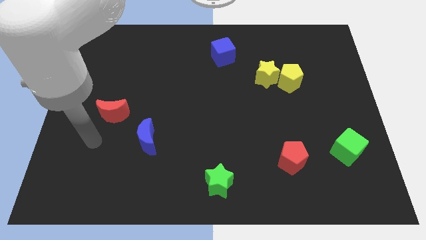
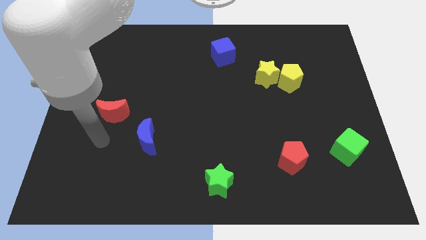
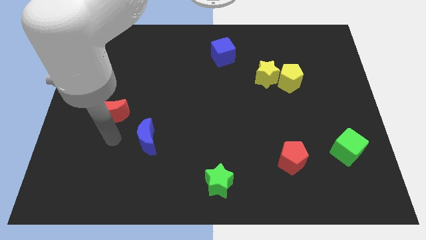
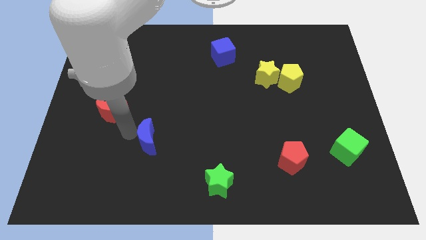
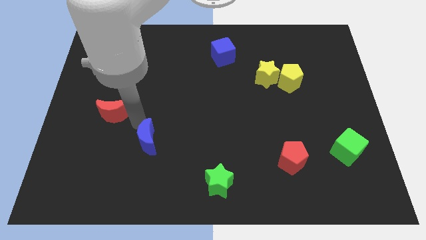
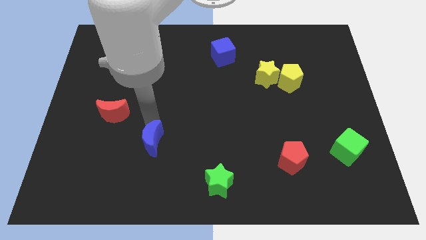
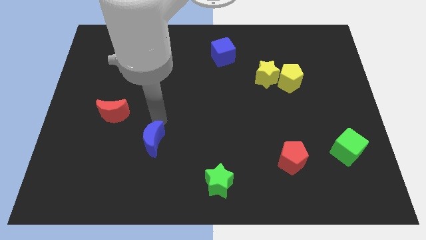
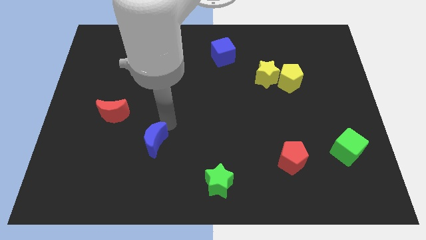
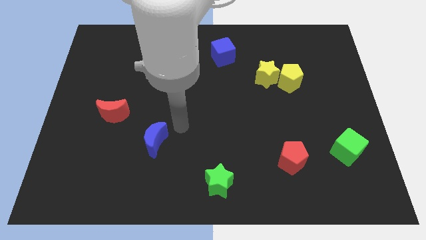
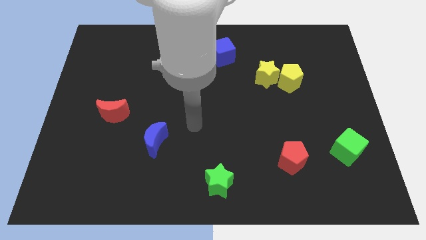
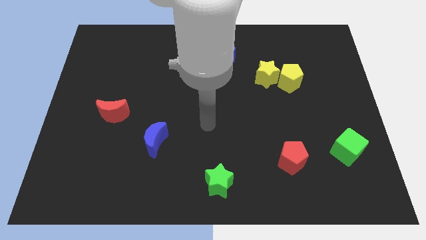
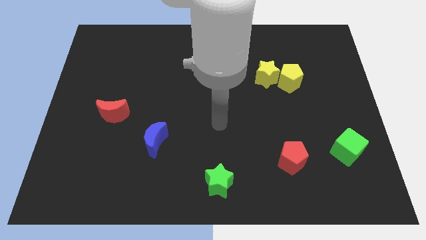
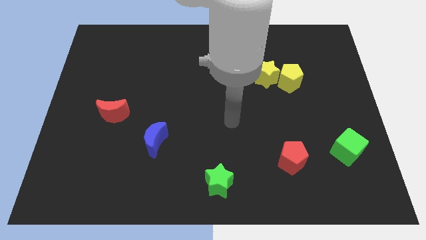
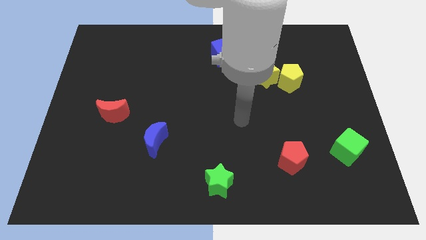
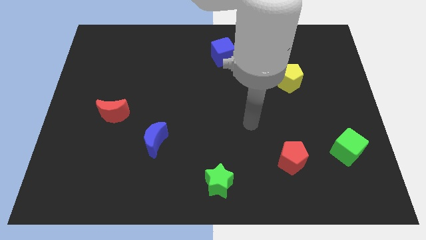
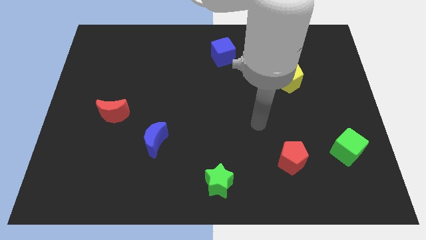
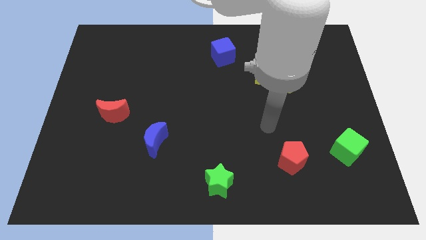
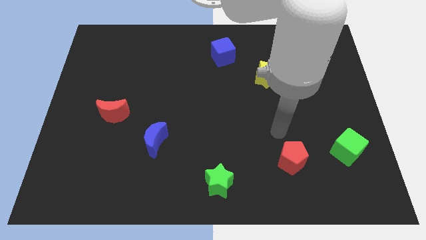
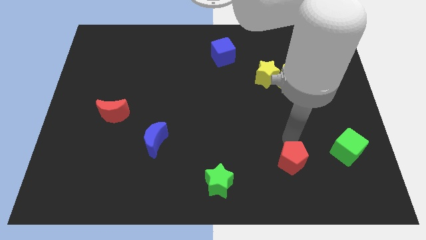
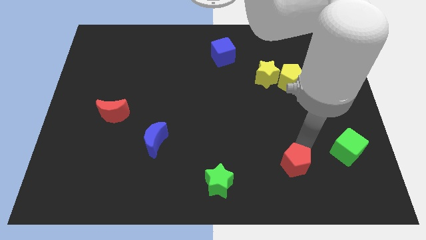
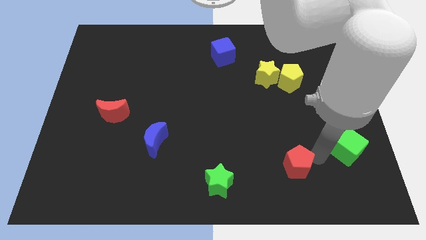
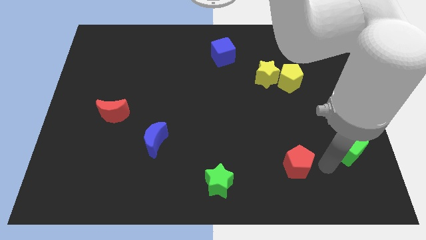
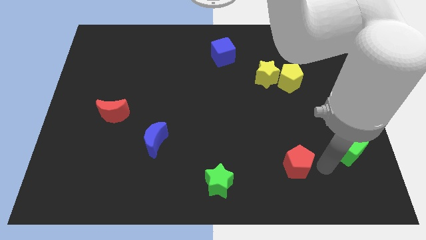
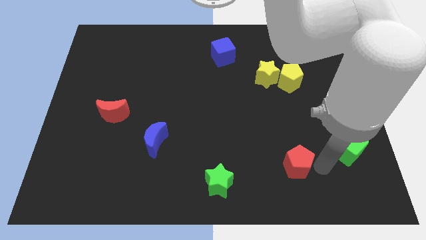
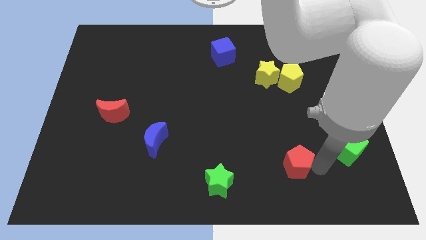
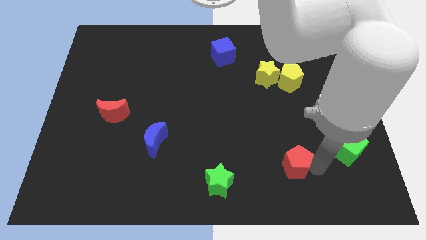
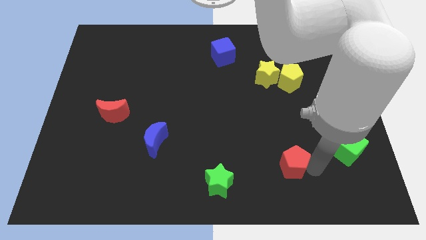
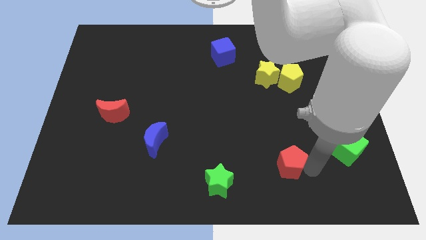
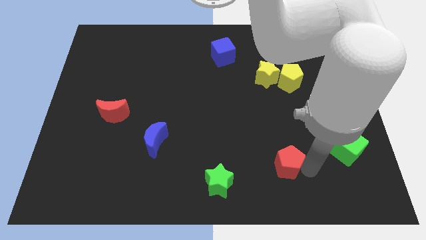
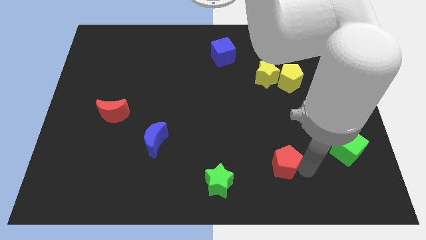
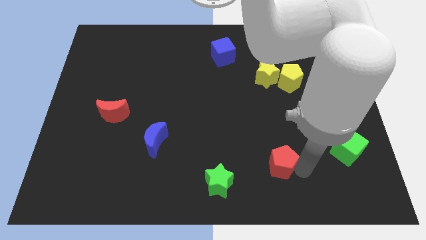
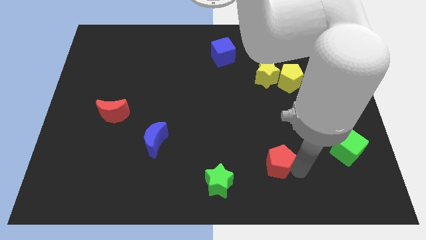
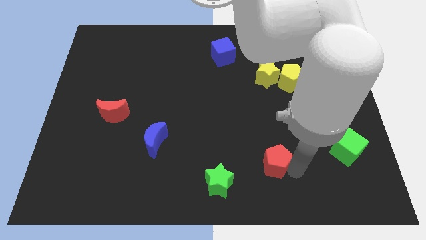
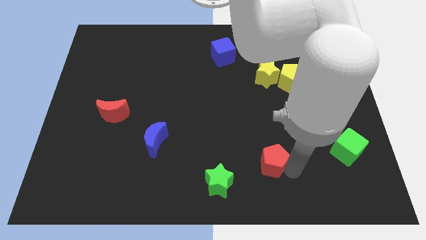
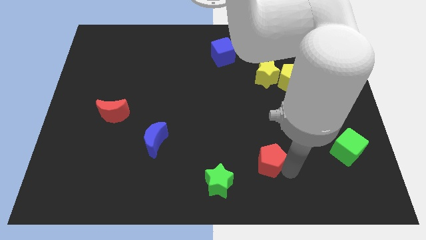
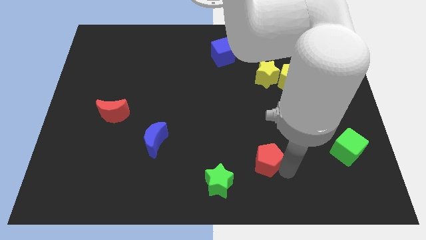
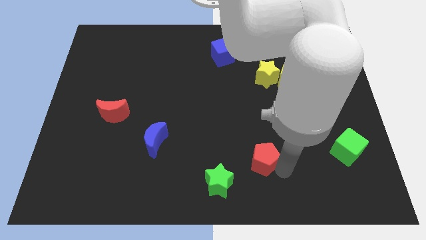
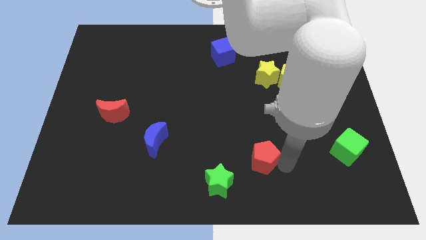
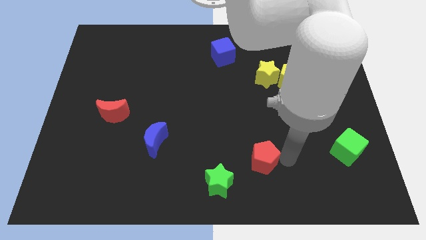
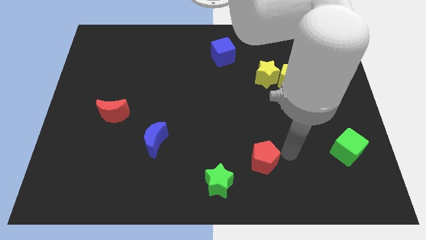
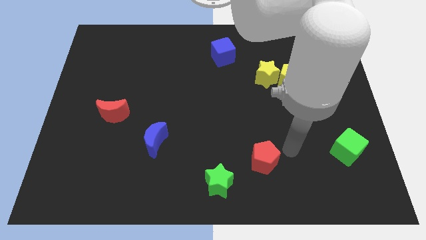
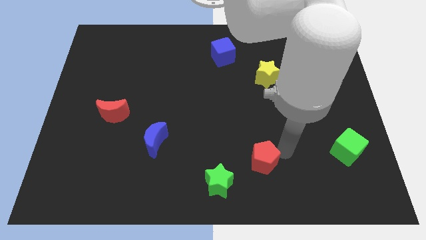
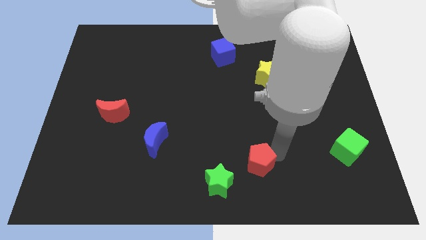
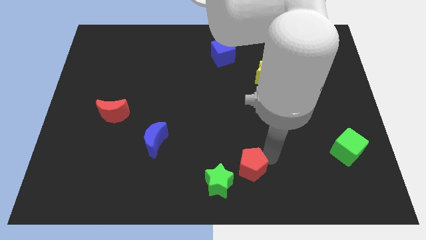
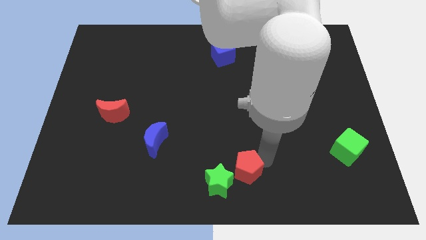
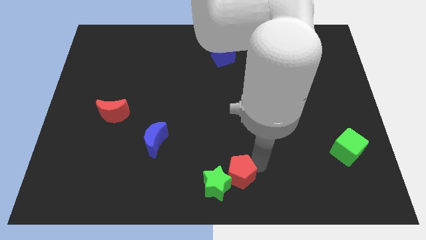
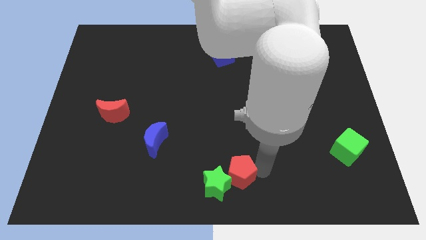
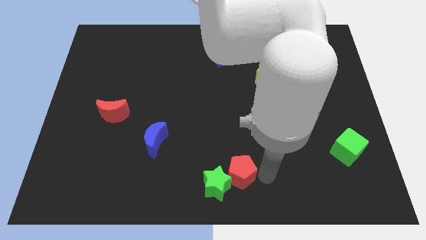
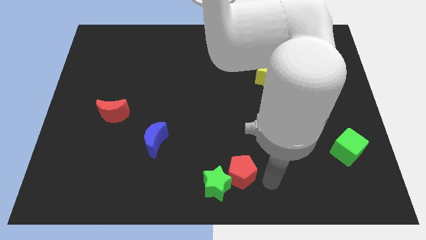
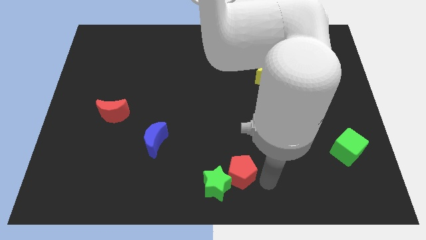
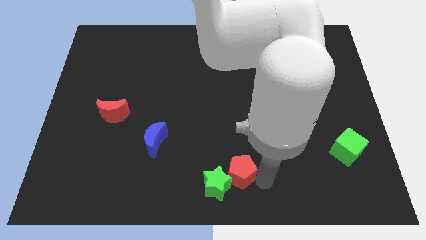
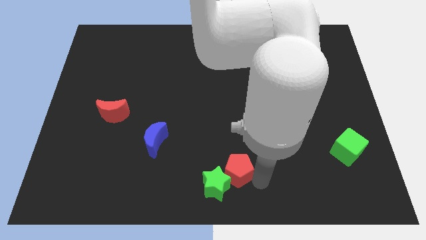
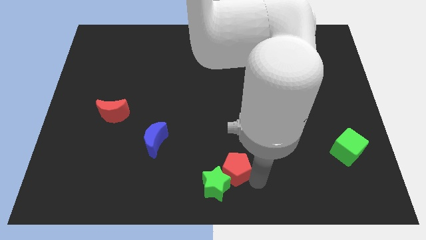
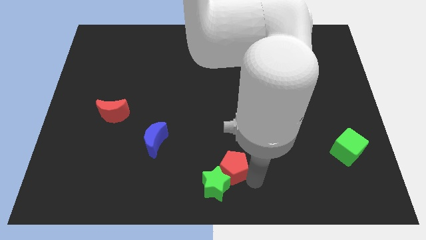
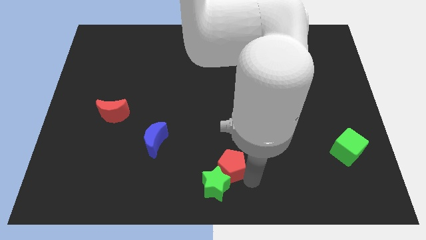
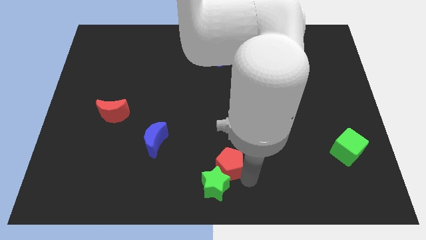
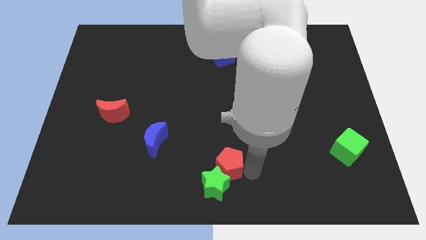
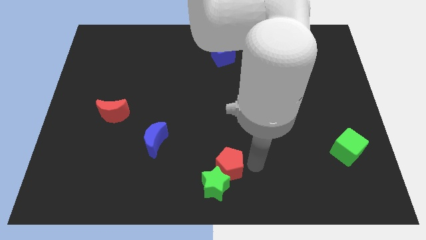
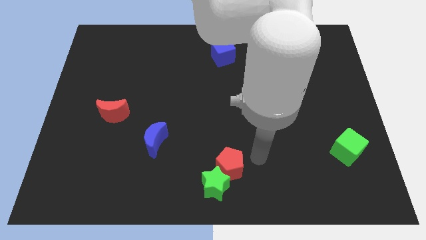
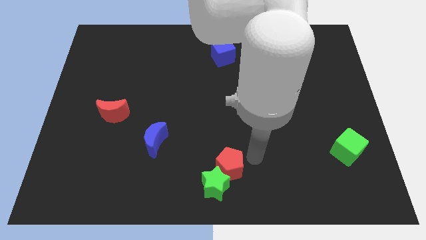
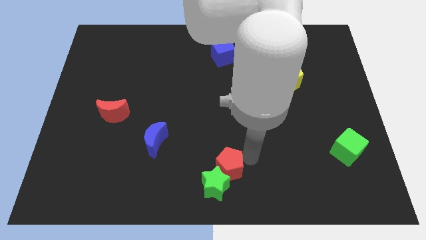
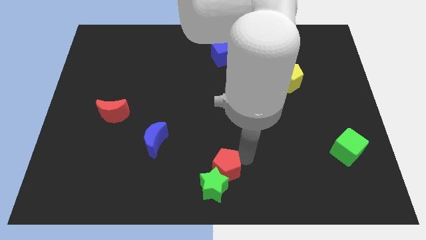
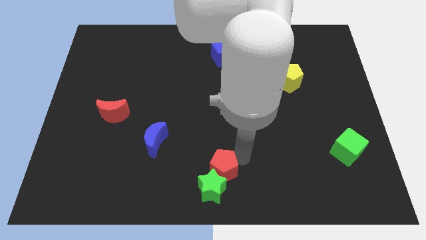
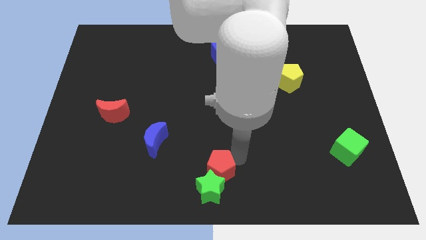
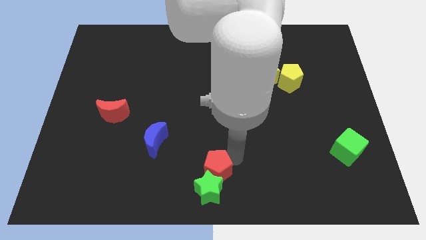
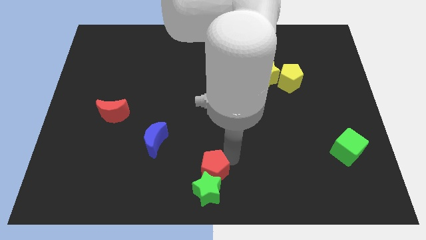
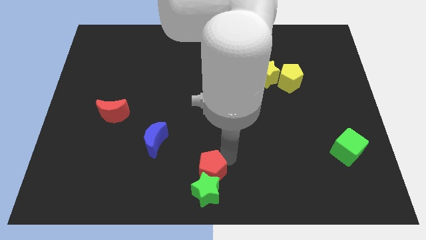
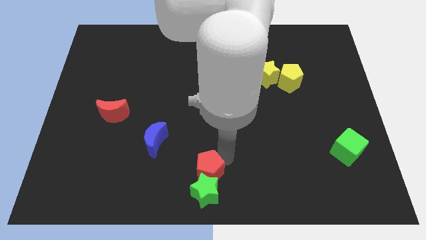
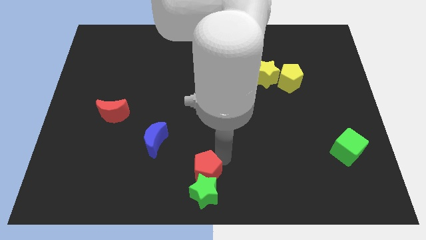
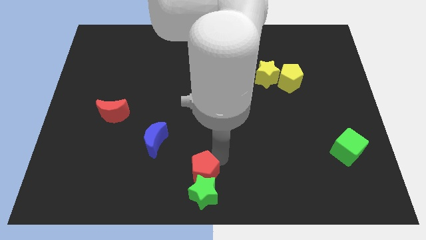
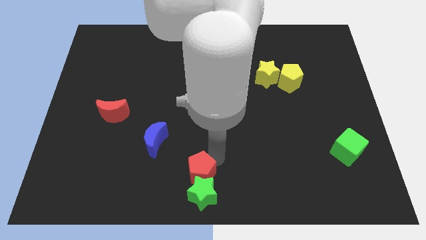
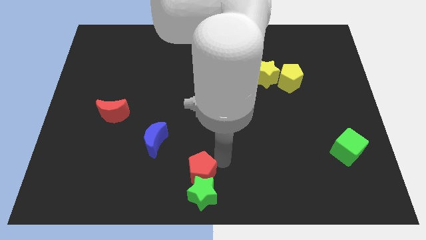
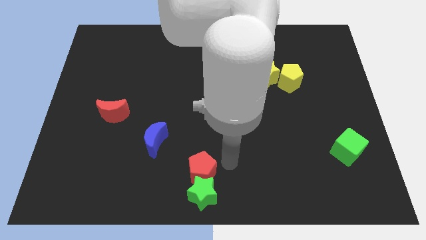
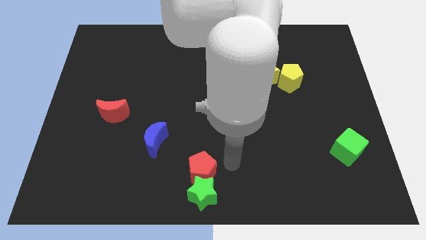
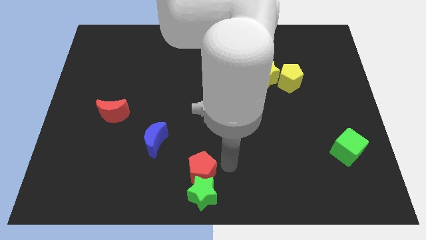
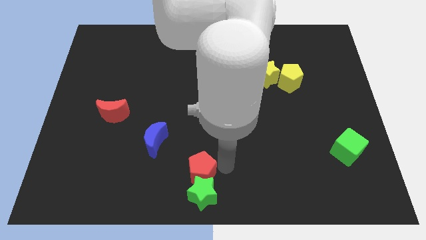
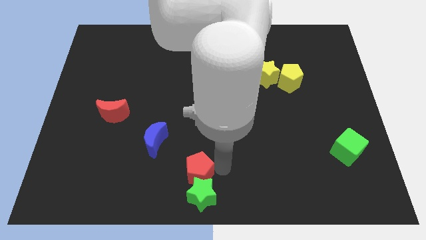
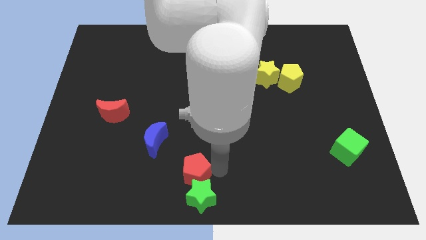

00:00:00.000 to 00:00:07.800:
push the red pentagon to the left

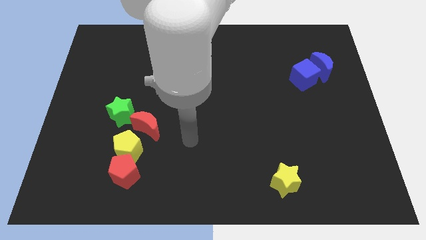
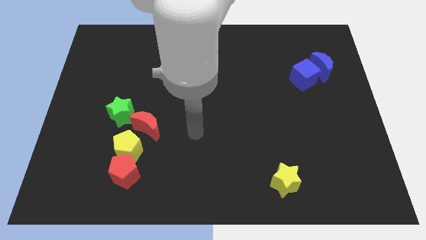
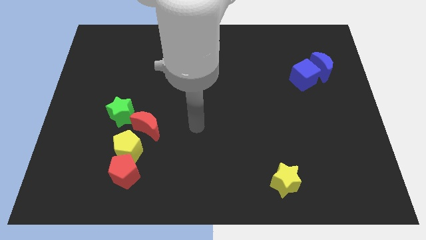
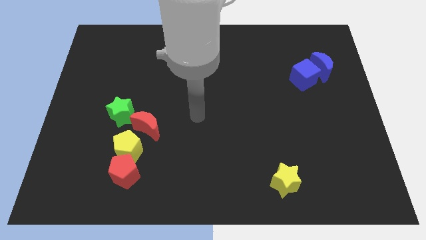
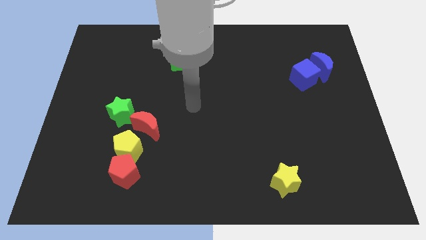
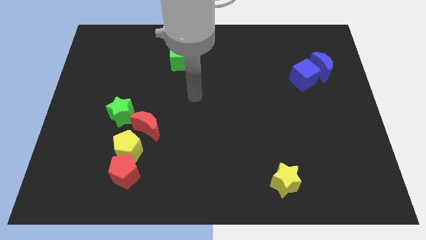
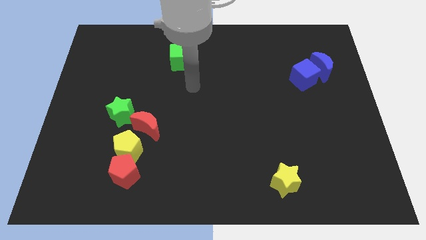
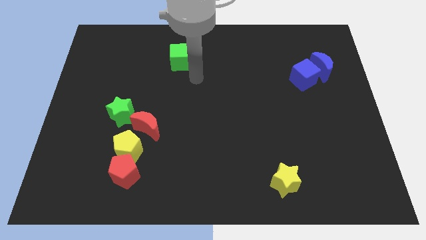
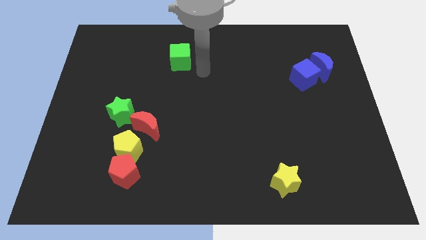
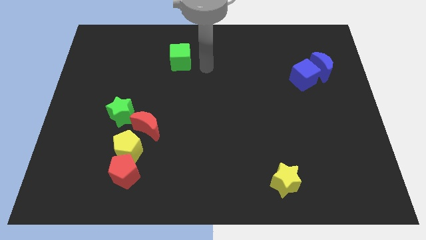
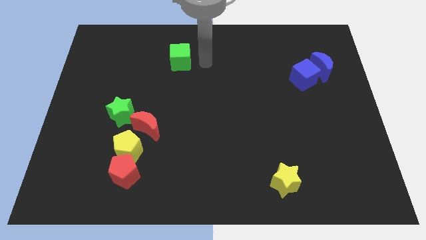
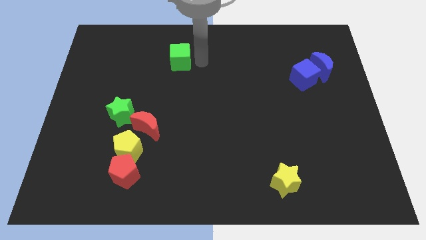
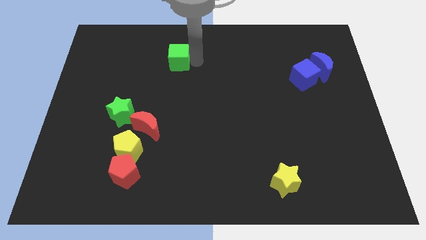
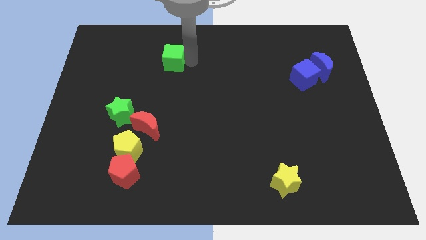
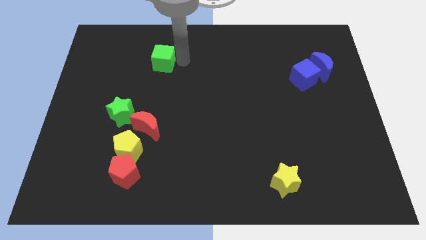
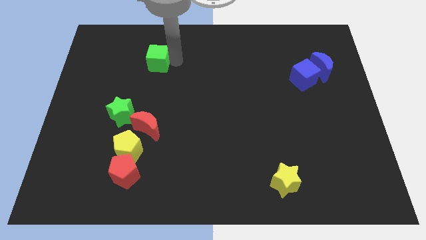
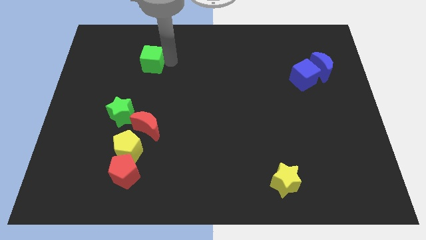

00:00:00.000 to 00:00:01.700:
push the green cube left slightly
